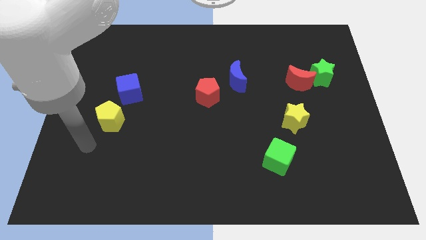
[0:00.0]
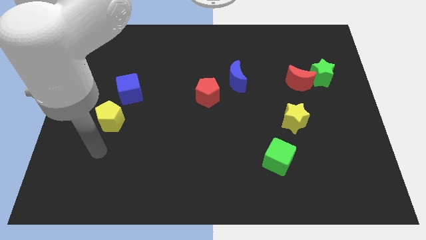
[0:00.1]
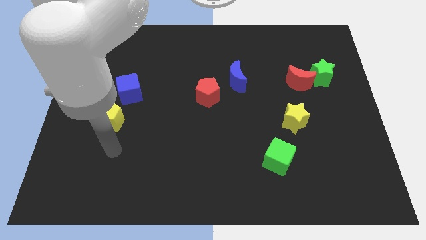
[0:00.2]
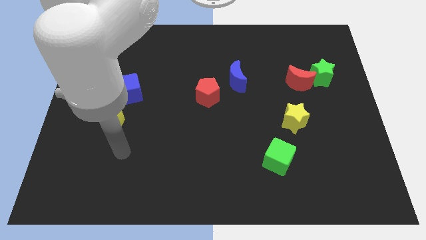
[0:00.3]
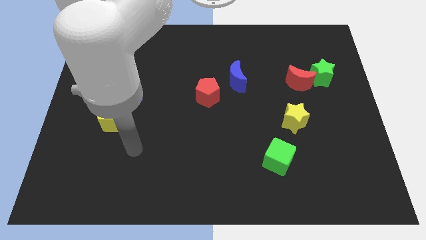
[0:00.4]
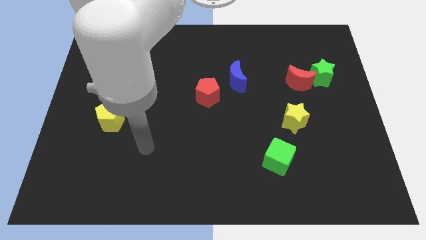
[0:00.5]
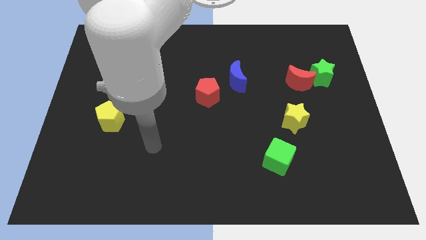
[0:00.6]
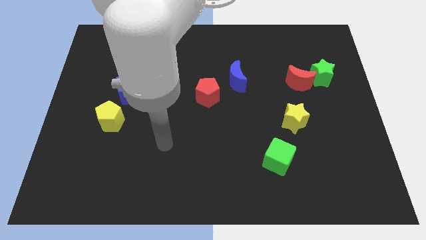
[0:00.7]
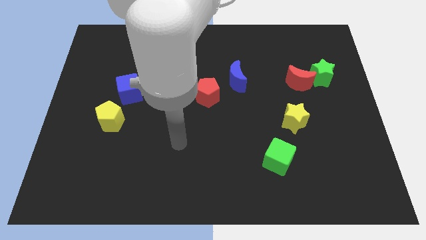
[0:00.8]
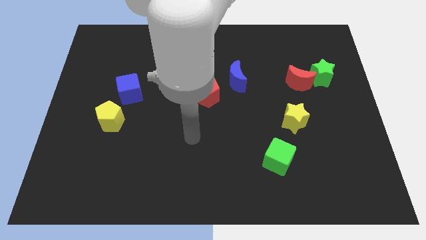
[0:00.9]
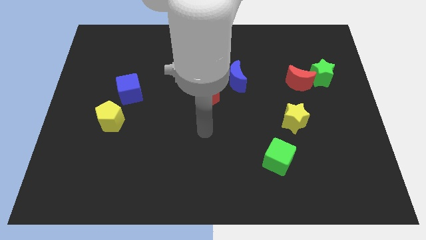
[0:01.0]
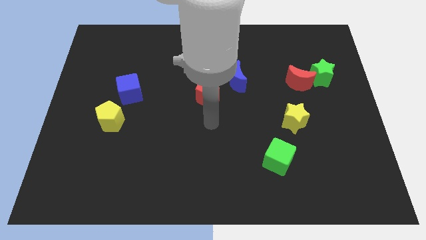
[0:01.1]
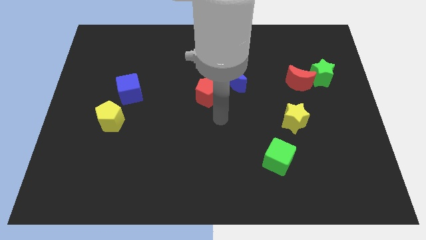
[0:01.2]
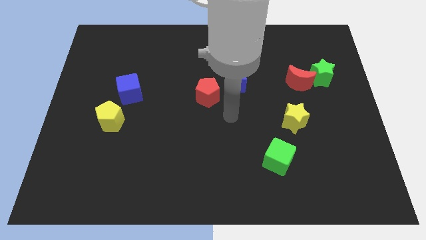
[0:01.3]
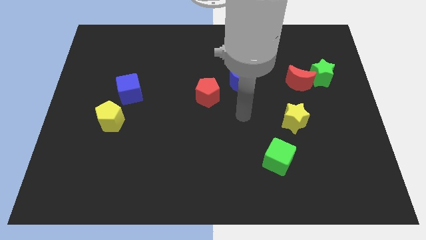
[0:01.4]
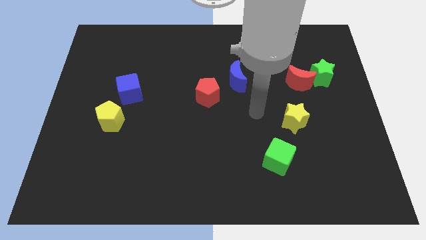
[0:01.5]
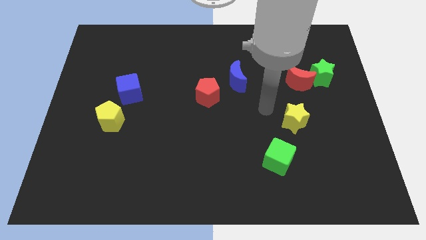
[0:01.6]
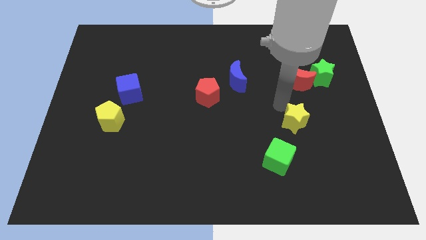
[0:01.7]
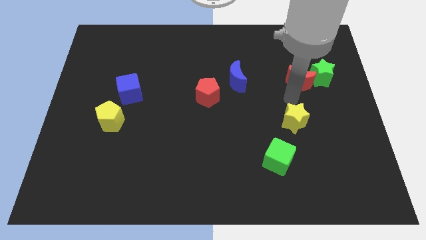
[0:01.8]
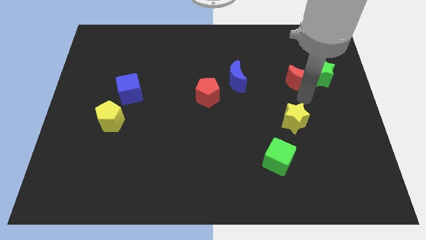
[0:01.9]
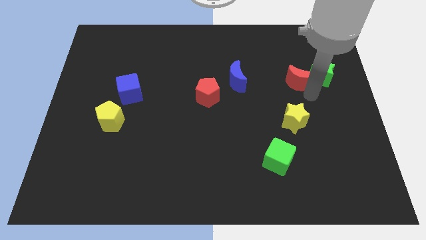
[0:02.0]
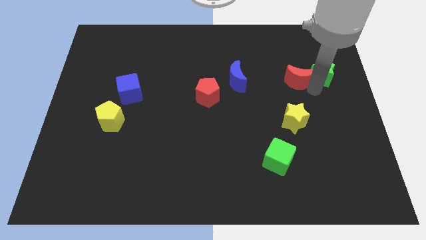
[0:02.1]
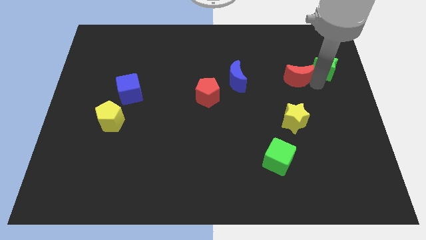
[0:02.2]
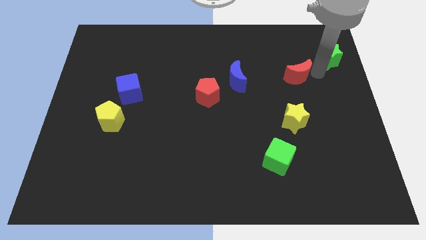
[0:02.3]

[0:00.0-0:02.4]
move the red moon away from the green star

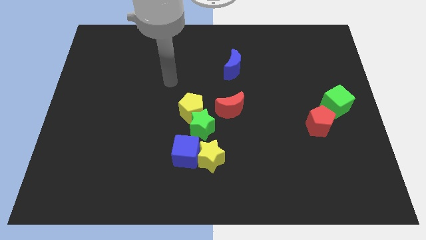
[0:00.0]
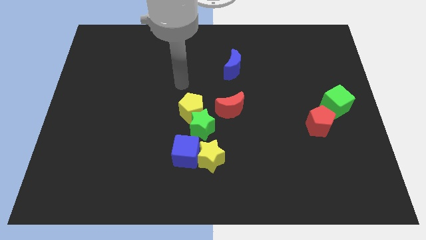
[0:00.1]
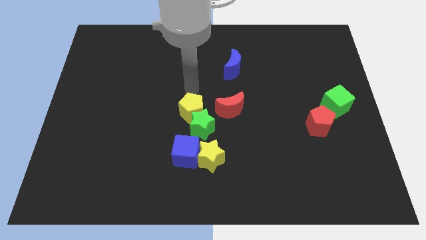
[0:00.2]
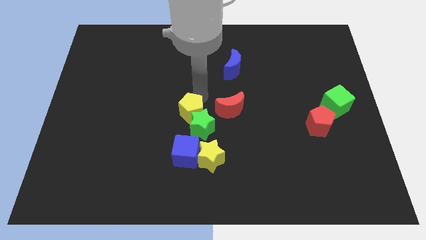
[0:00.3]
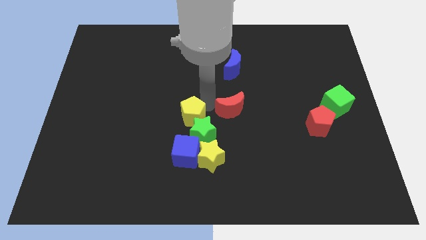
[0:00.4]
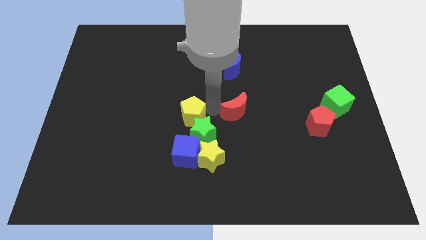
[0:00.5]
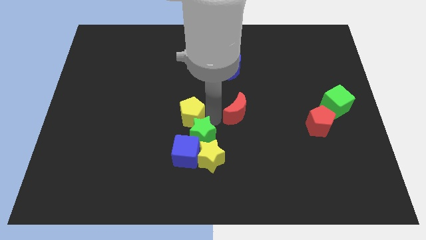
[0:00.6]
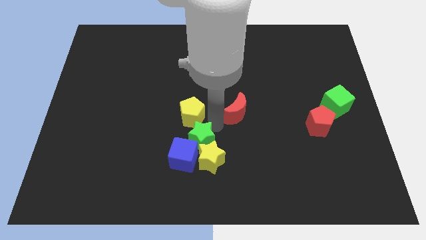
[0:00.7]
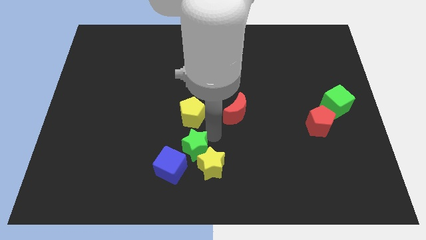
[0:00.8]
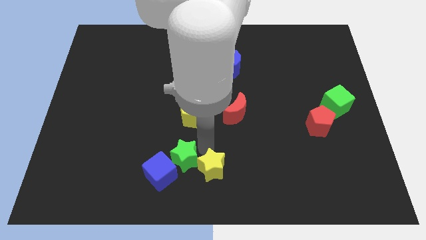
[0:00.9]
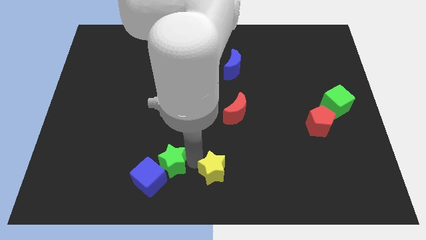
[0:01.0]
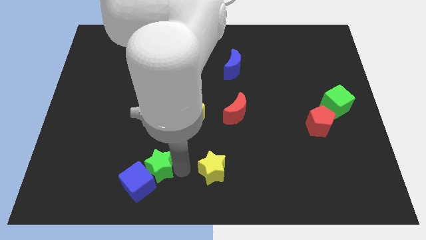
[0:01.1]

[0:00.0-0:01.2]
separate the blue cube from the yellow star and green star

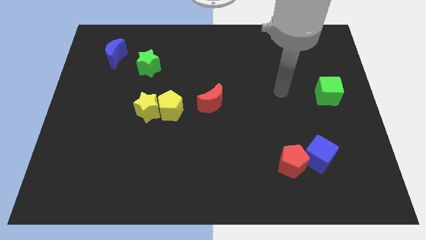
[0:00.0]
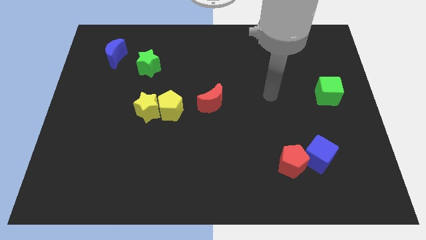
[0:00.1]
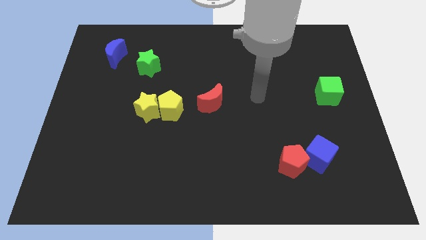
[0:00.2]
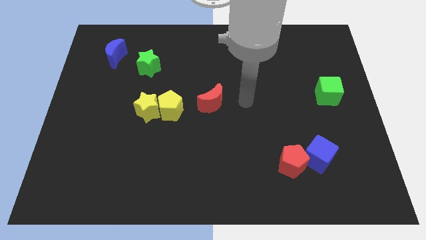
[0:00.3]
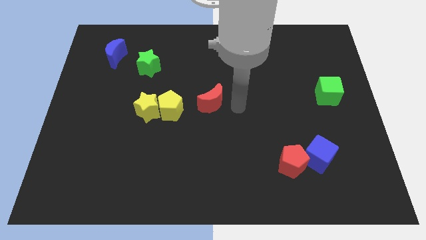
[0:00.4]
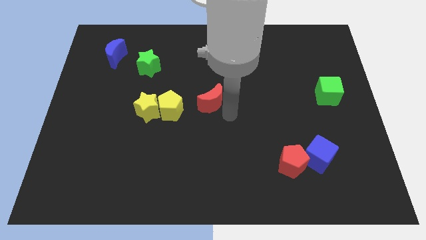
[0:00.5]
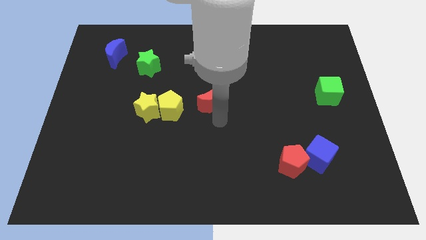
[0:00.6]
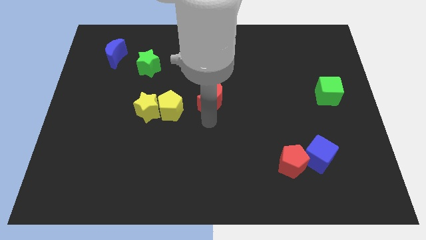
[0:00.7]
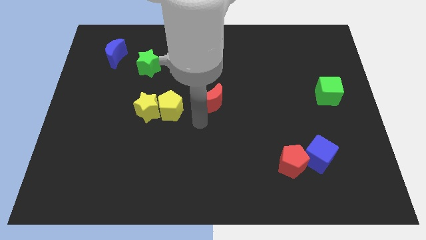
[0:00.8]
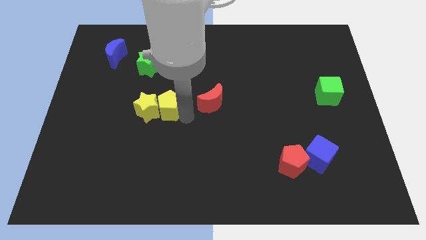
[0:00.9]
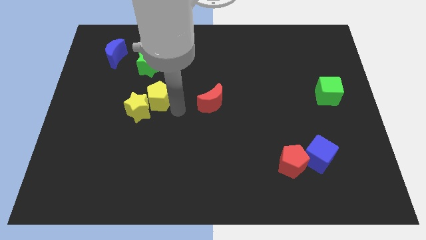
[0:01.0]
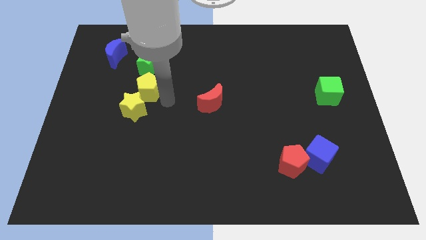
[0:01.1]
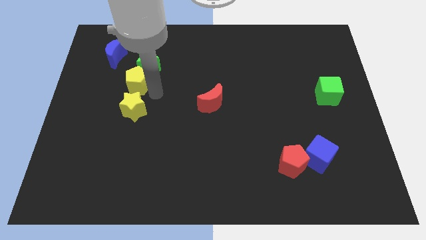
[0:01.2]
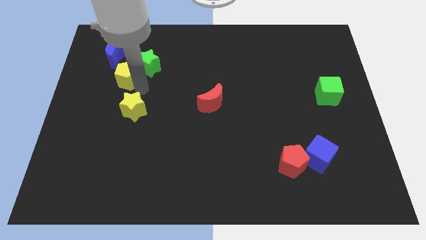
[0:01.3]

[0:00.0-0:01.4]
pull the yellow star apart from the yellow pentagon

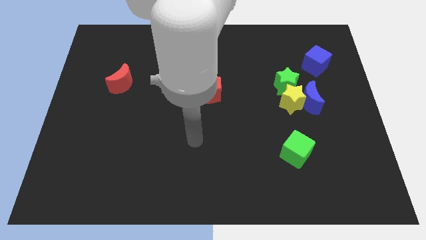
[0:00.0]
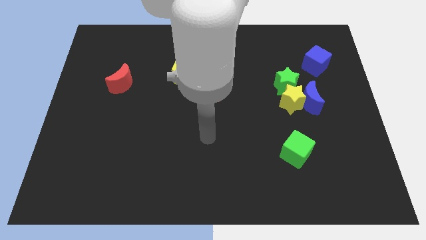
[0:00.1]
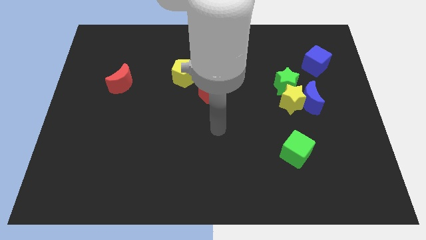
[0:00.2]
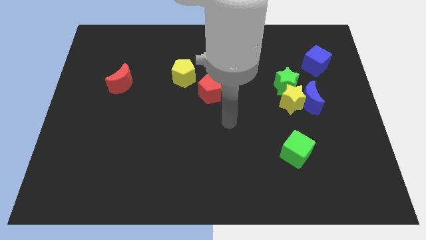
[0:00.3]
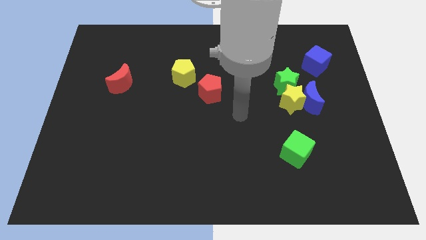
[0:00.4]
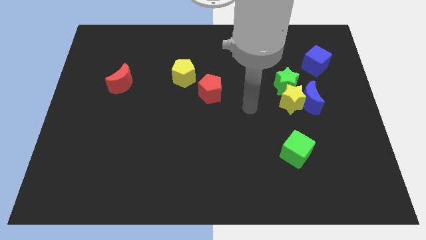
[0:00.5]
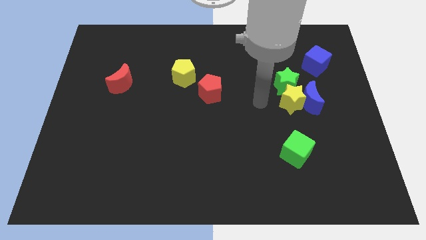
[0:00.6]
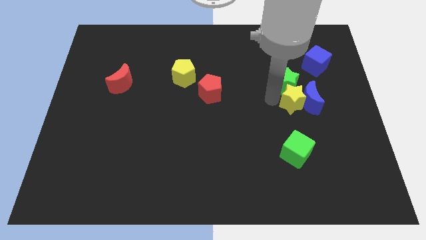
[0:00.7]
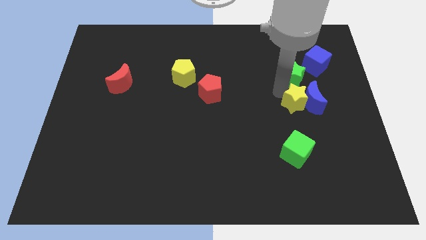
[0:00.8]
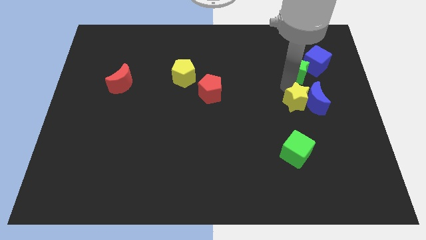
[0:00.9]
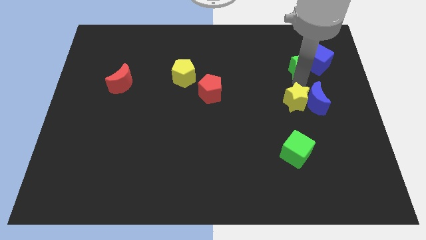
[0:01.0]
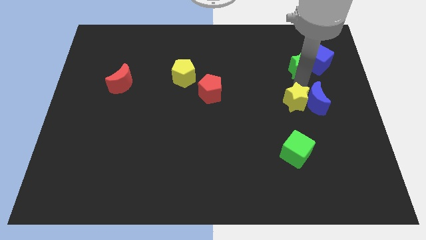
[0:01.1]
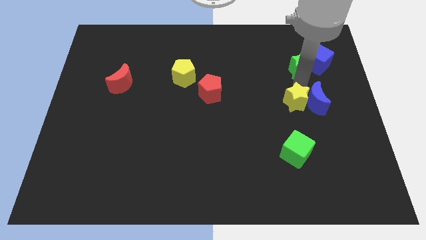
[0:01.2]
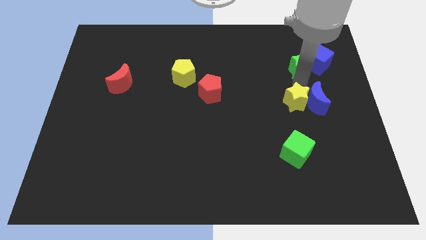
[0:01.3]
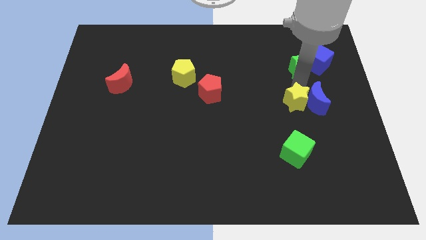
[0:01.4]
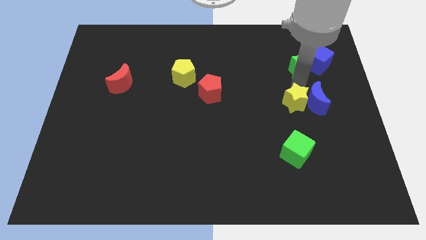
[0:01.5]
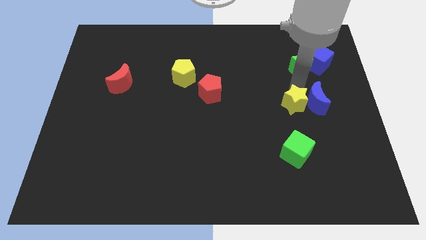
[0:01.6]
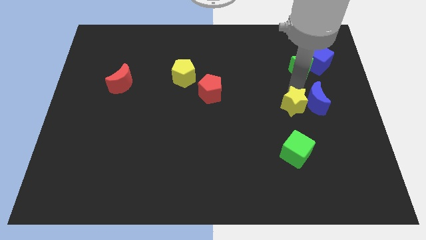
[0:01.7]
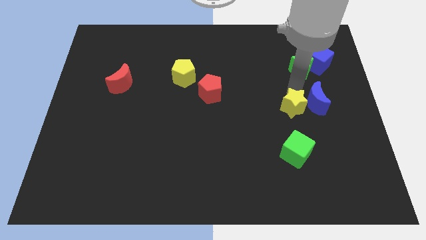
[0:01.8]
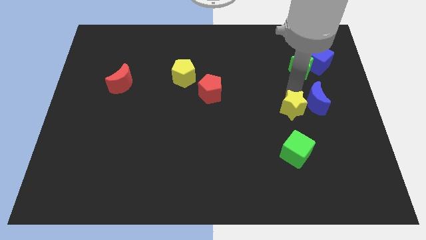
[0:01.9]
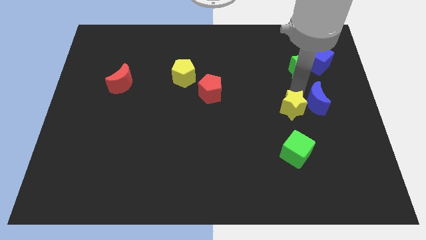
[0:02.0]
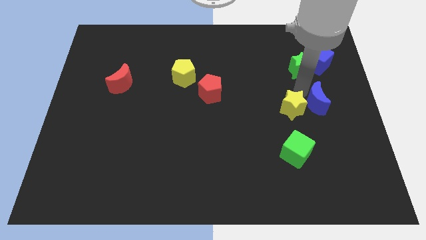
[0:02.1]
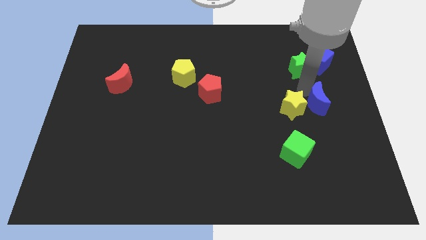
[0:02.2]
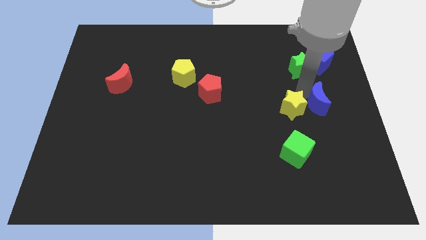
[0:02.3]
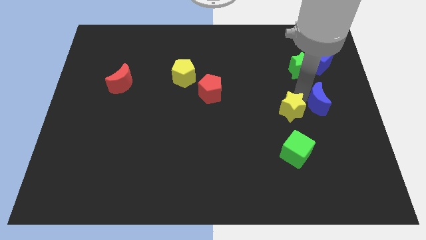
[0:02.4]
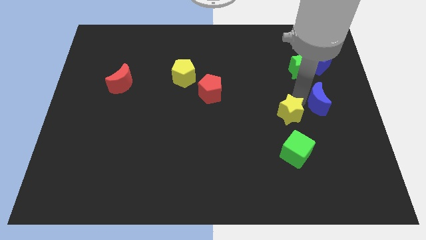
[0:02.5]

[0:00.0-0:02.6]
separate the yellow star from the blue moon and green star

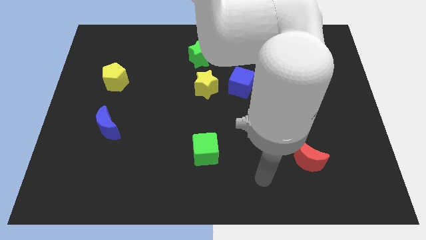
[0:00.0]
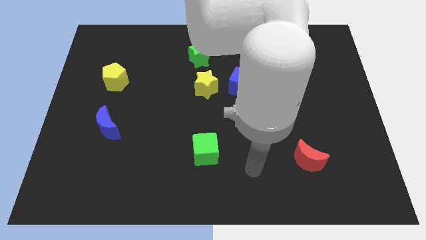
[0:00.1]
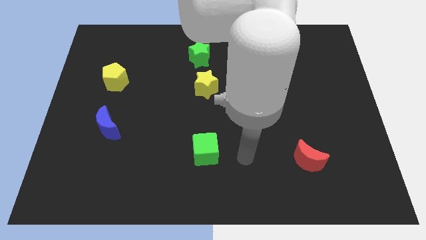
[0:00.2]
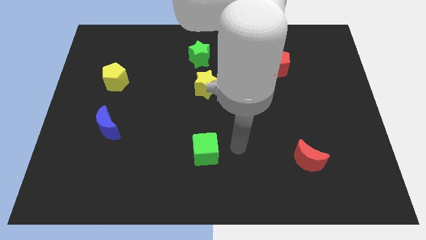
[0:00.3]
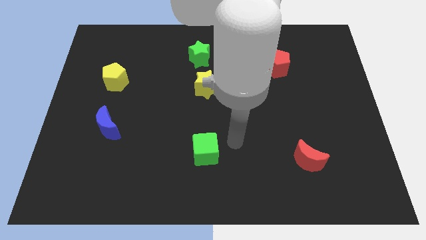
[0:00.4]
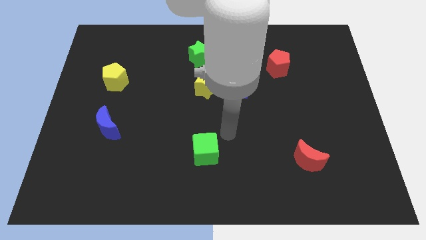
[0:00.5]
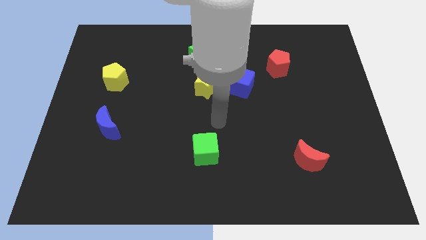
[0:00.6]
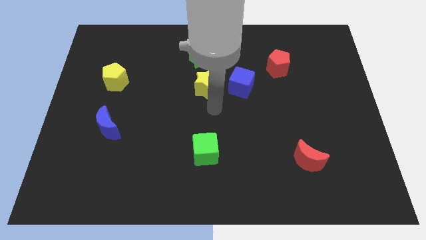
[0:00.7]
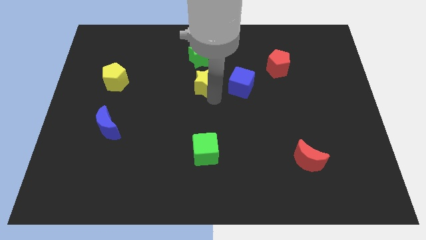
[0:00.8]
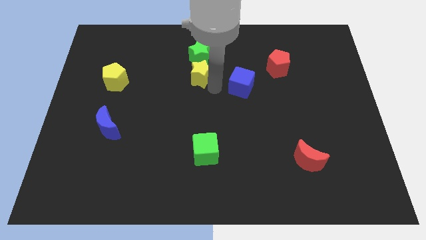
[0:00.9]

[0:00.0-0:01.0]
pull the blue cube apart from the yellow star

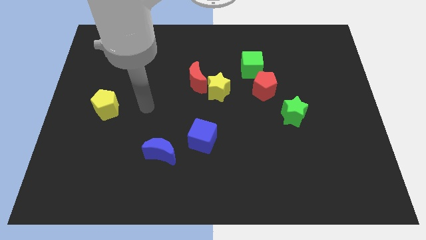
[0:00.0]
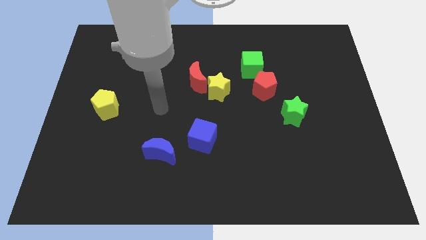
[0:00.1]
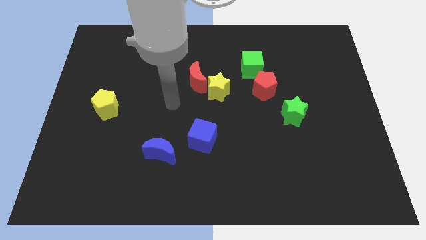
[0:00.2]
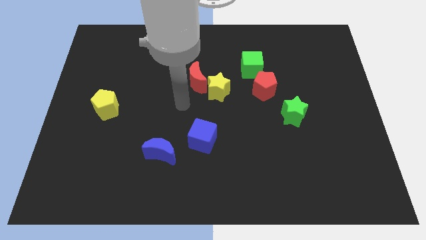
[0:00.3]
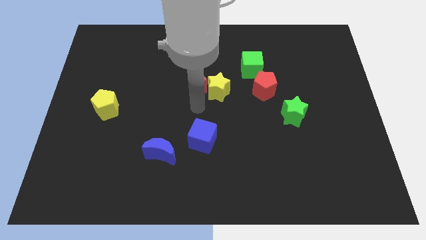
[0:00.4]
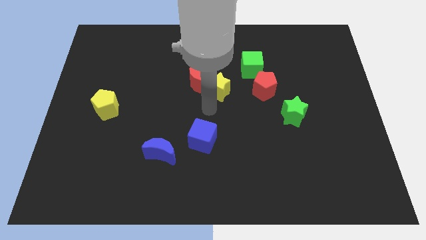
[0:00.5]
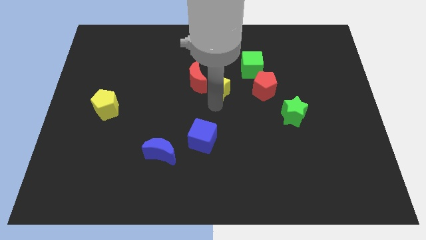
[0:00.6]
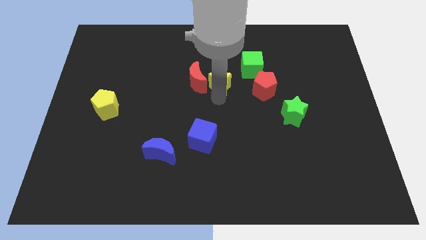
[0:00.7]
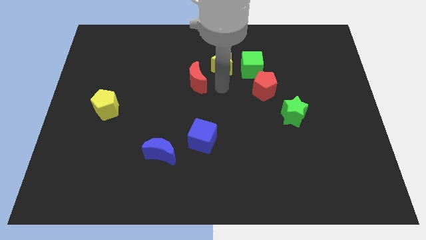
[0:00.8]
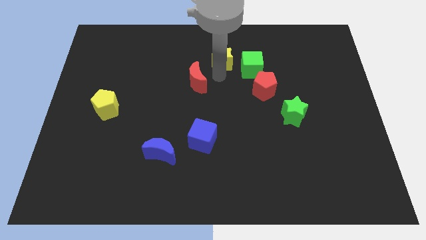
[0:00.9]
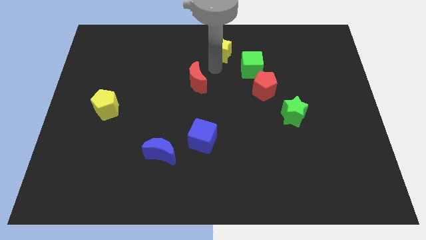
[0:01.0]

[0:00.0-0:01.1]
move the red moon away from the yellow star
